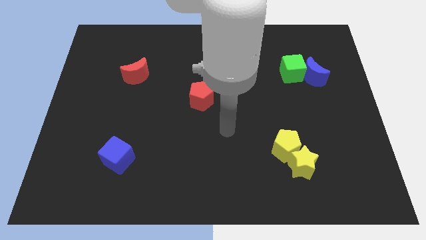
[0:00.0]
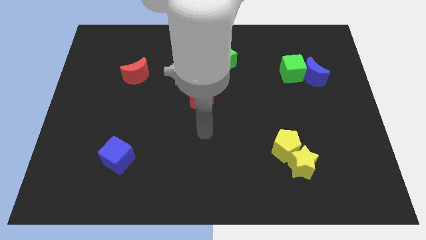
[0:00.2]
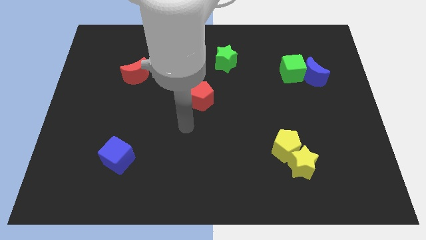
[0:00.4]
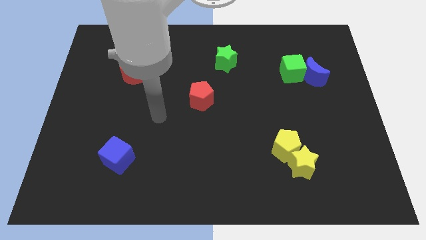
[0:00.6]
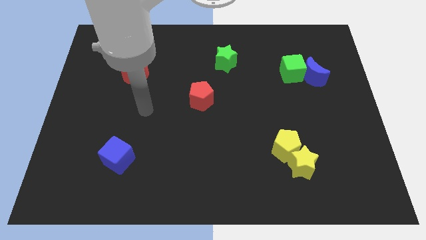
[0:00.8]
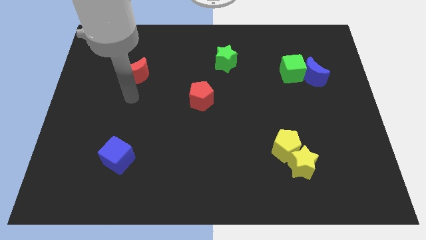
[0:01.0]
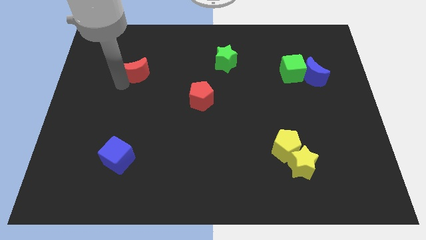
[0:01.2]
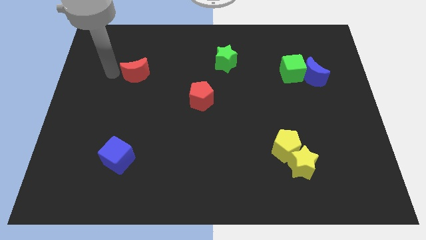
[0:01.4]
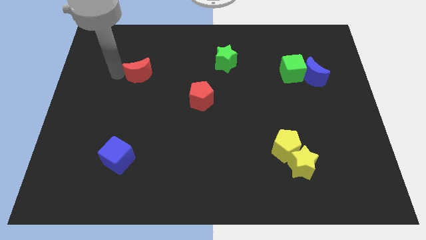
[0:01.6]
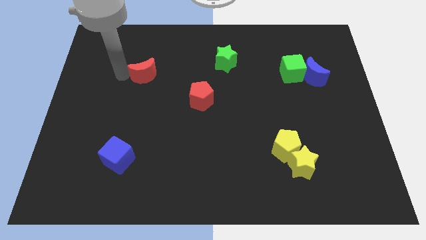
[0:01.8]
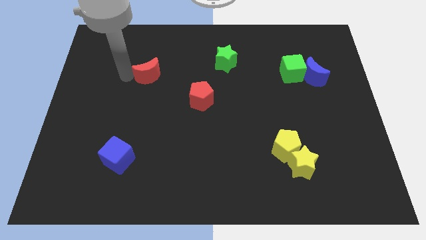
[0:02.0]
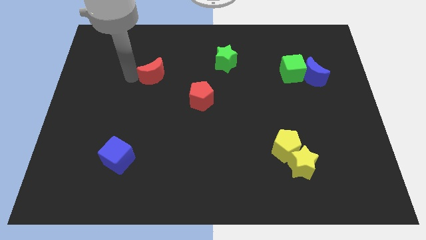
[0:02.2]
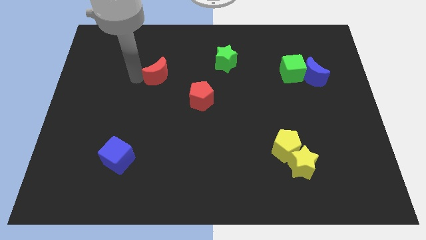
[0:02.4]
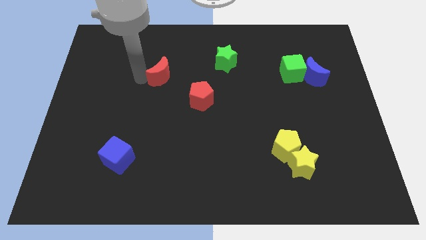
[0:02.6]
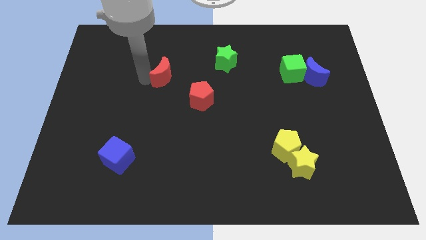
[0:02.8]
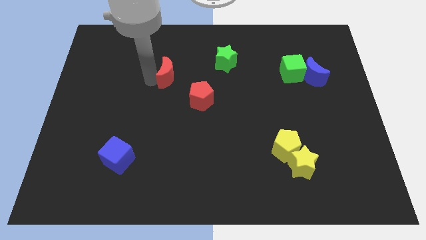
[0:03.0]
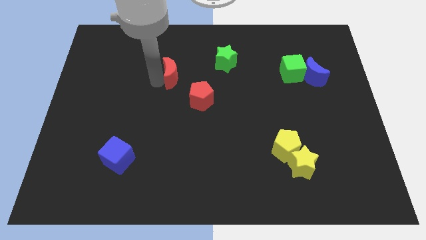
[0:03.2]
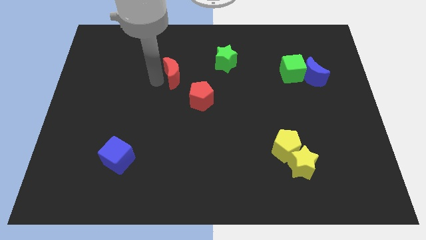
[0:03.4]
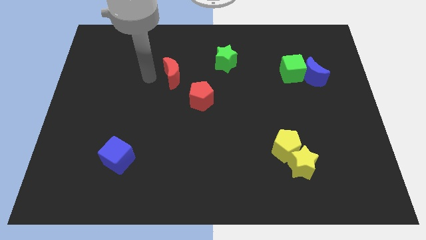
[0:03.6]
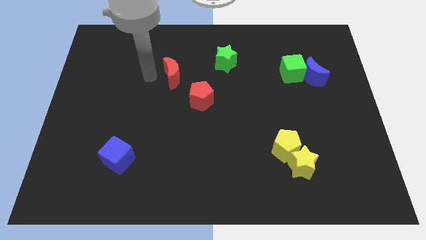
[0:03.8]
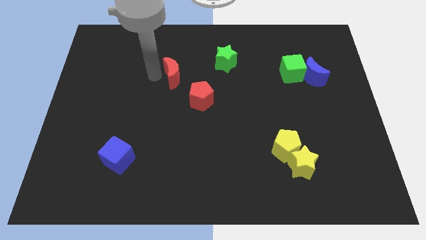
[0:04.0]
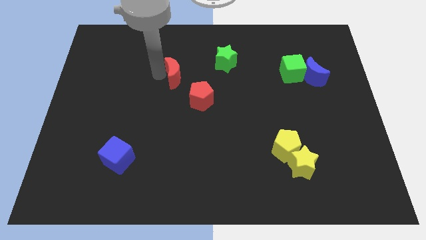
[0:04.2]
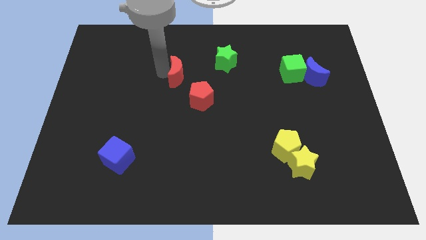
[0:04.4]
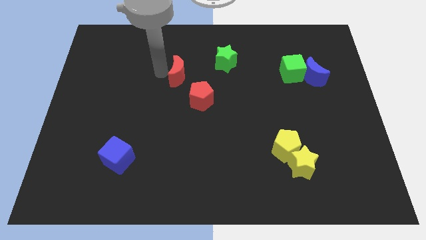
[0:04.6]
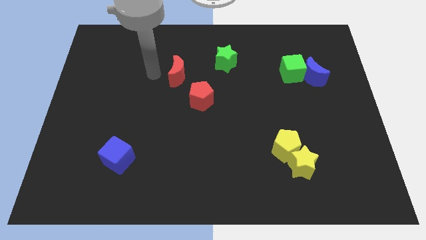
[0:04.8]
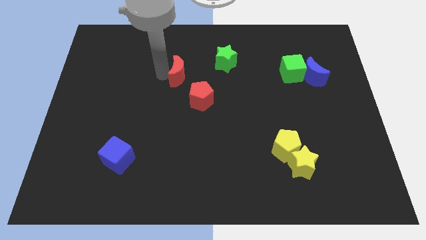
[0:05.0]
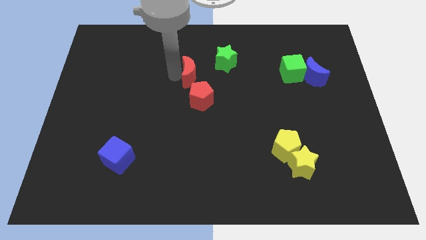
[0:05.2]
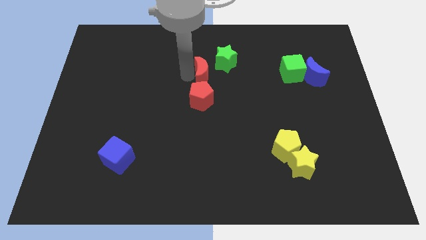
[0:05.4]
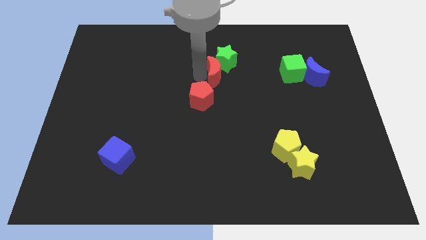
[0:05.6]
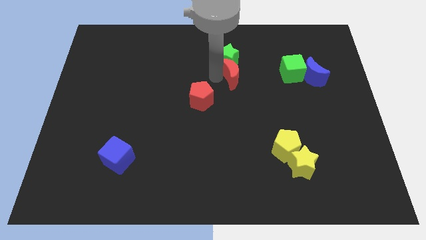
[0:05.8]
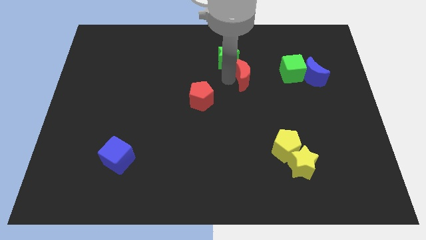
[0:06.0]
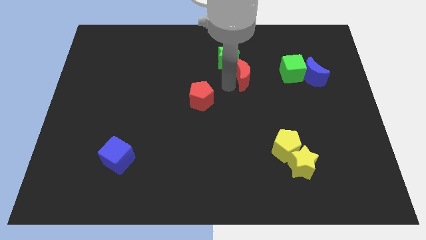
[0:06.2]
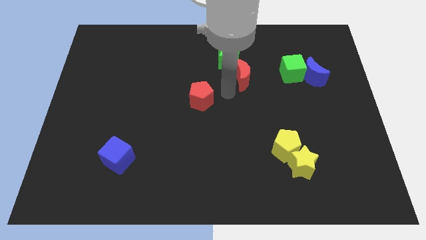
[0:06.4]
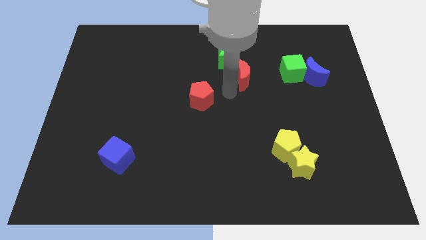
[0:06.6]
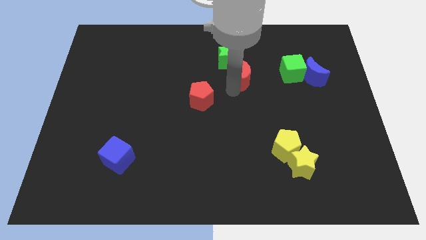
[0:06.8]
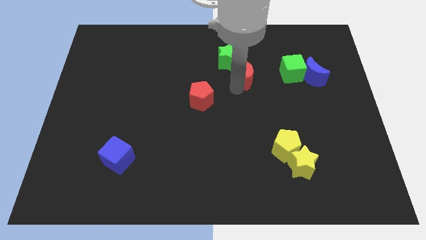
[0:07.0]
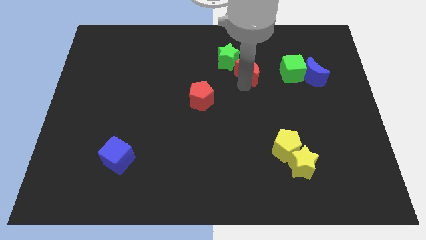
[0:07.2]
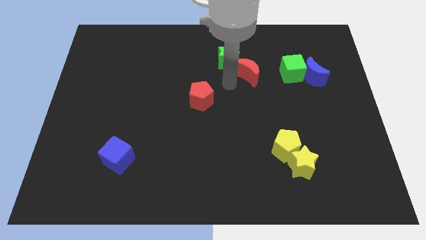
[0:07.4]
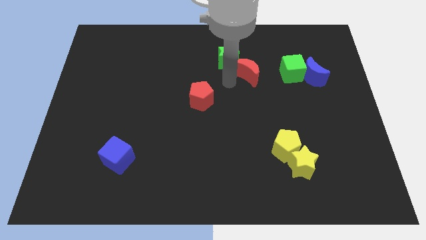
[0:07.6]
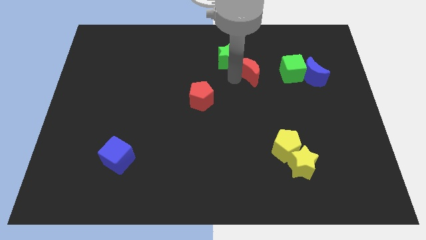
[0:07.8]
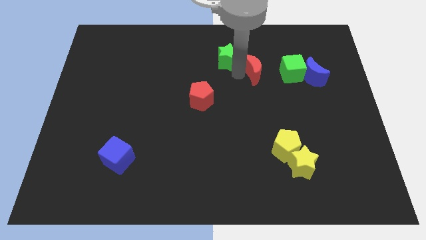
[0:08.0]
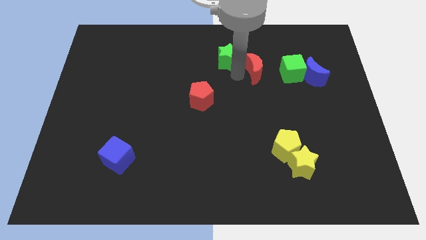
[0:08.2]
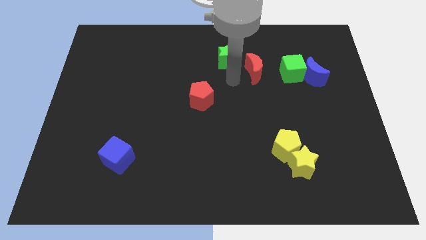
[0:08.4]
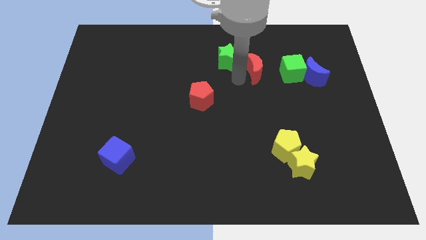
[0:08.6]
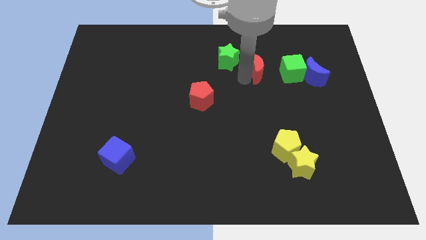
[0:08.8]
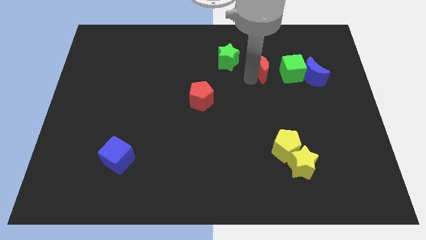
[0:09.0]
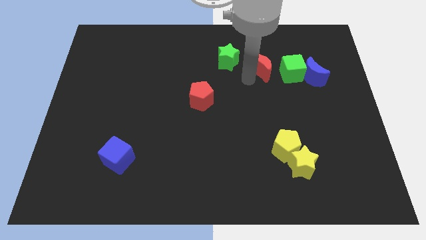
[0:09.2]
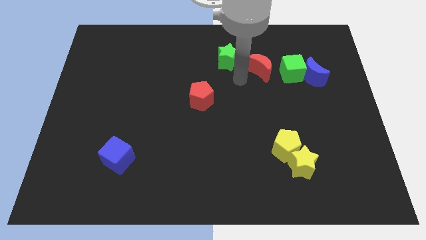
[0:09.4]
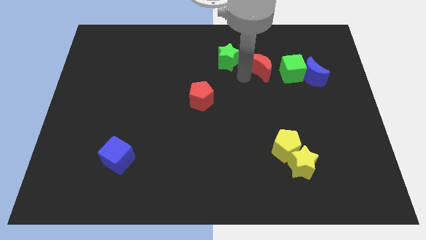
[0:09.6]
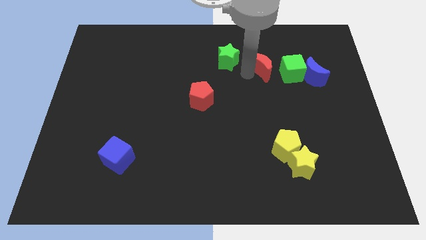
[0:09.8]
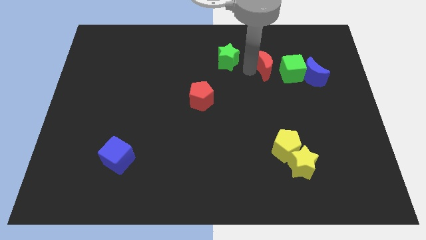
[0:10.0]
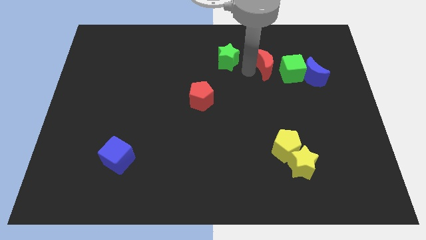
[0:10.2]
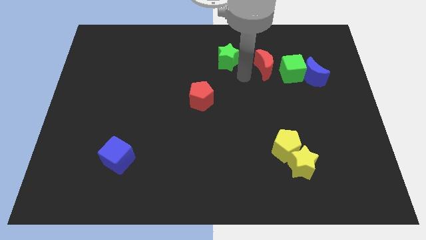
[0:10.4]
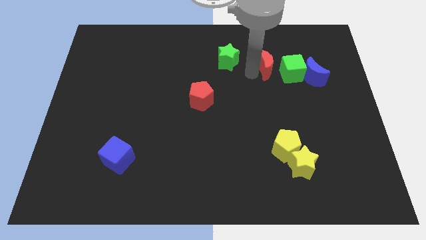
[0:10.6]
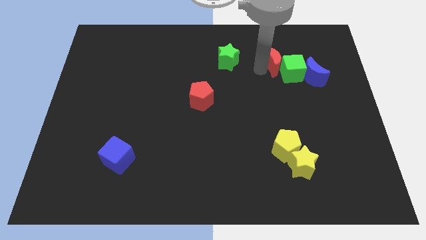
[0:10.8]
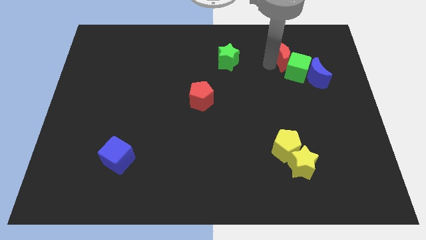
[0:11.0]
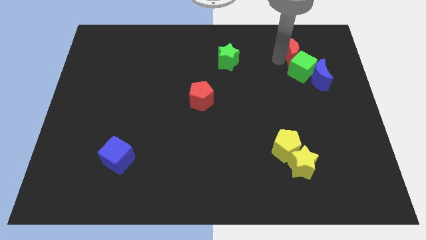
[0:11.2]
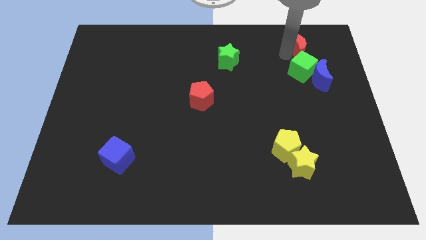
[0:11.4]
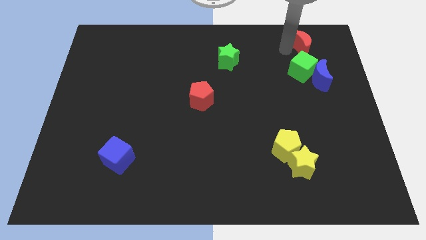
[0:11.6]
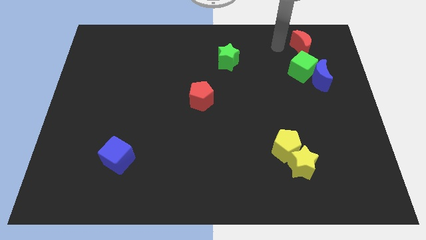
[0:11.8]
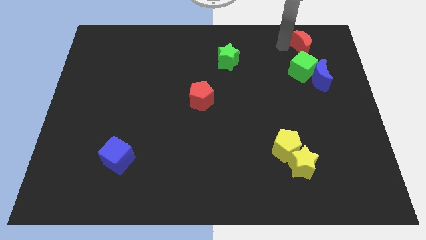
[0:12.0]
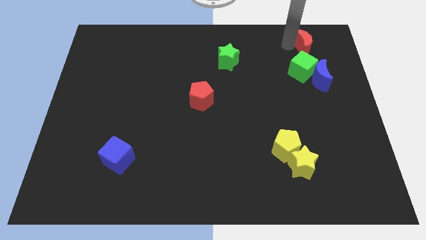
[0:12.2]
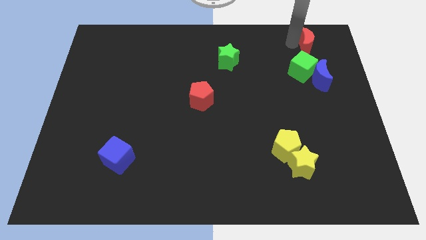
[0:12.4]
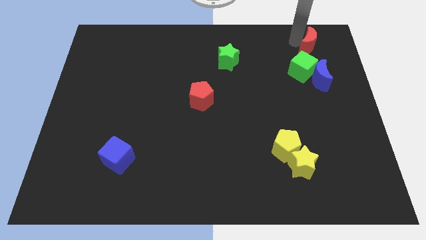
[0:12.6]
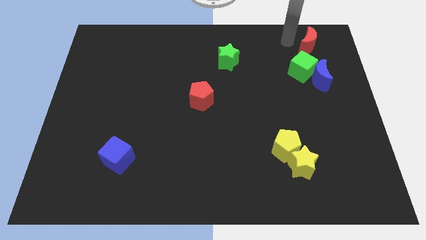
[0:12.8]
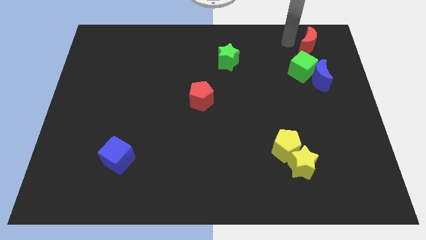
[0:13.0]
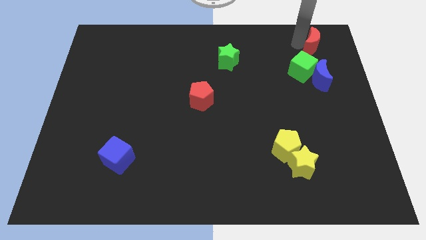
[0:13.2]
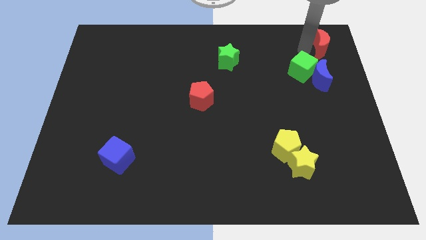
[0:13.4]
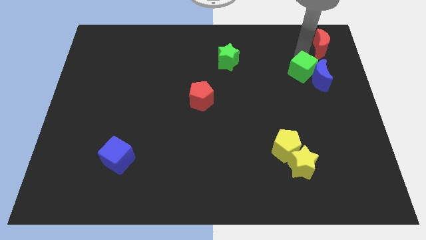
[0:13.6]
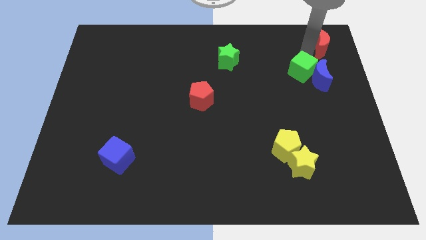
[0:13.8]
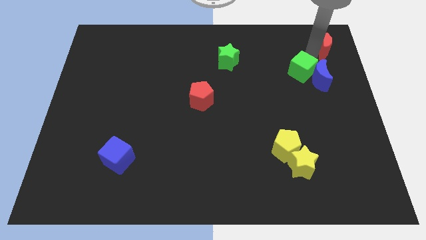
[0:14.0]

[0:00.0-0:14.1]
move the red moon to the top right of the board
